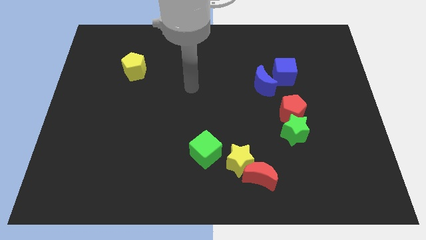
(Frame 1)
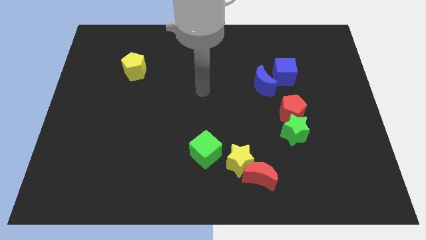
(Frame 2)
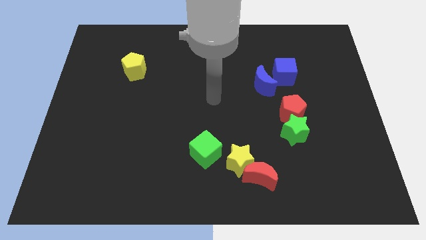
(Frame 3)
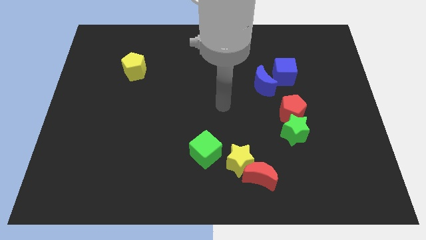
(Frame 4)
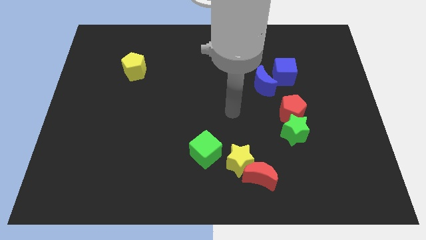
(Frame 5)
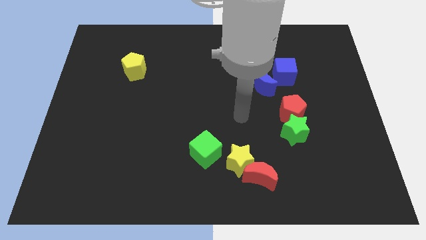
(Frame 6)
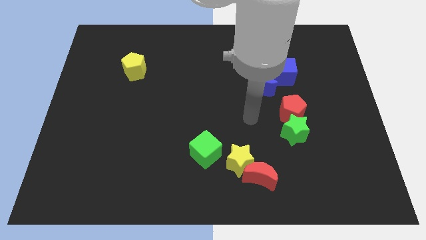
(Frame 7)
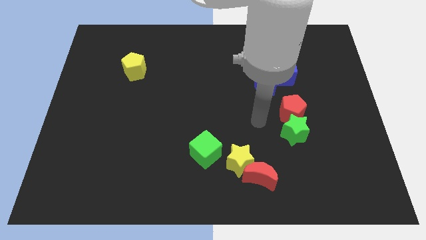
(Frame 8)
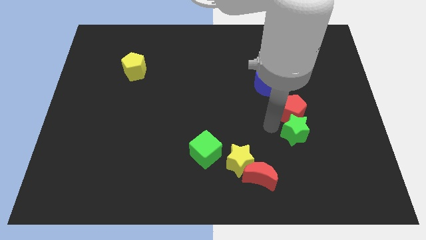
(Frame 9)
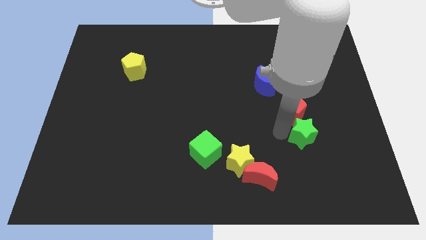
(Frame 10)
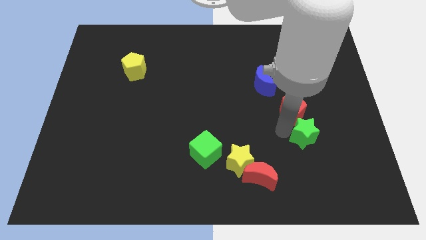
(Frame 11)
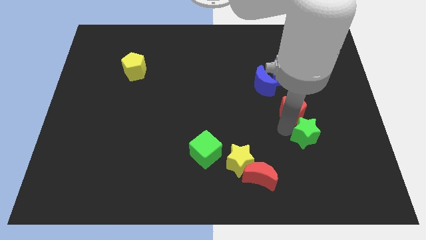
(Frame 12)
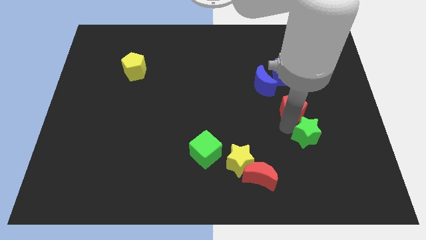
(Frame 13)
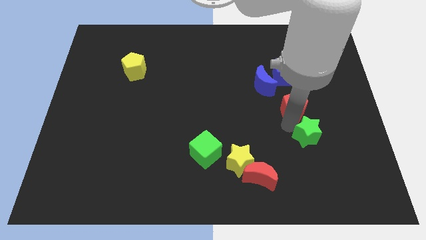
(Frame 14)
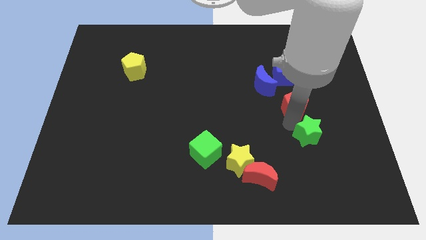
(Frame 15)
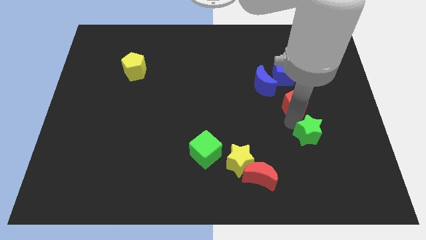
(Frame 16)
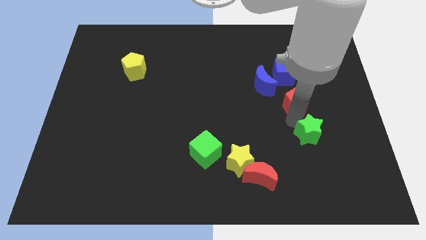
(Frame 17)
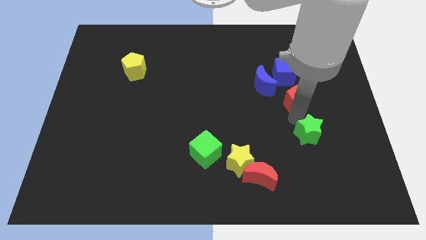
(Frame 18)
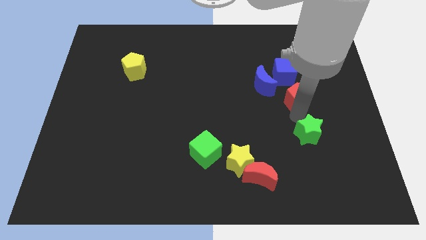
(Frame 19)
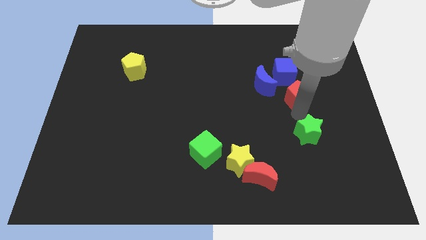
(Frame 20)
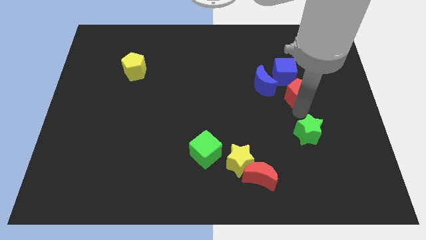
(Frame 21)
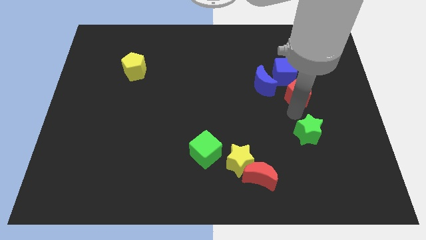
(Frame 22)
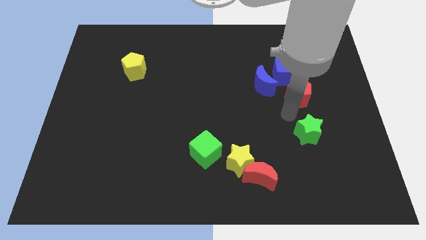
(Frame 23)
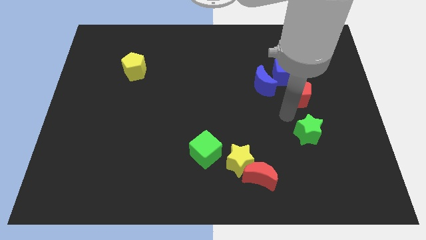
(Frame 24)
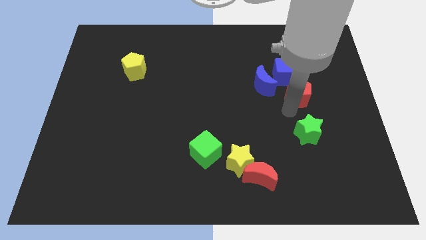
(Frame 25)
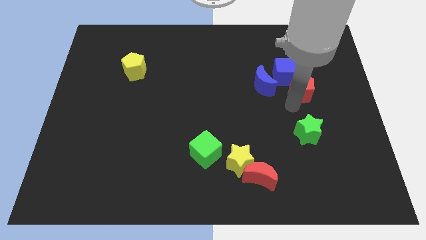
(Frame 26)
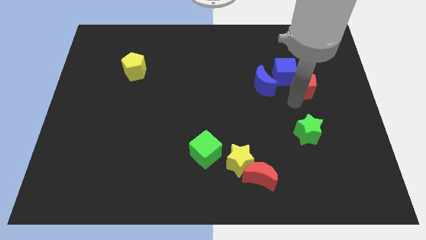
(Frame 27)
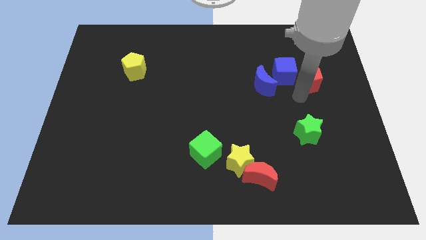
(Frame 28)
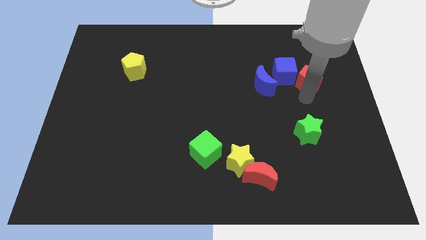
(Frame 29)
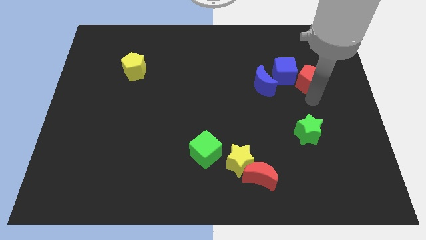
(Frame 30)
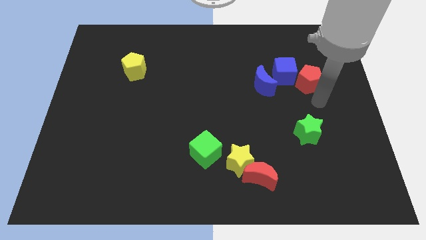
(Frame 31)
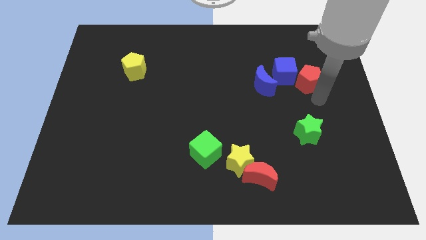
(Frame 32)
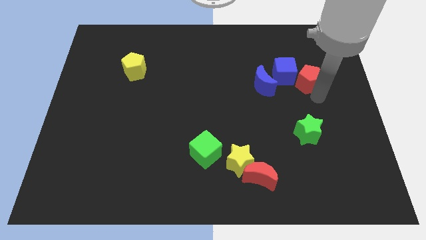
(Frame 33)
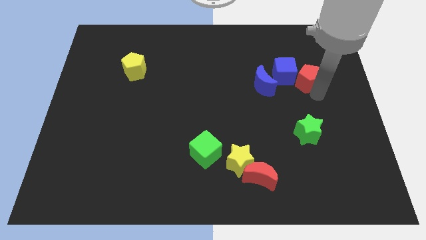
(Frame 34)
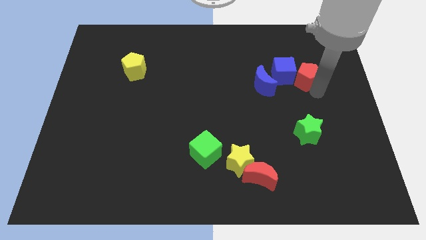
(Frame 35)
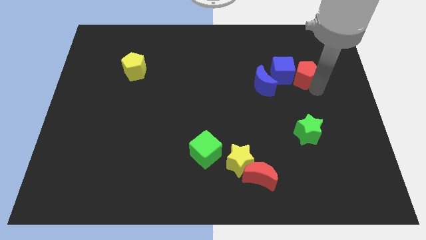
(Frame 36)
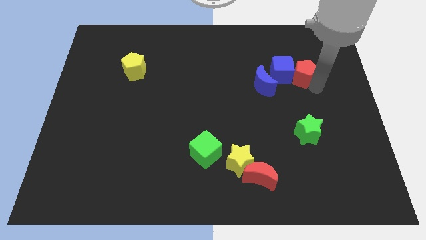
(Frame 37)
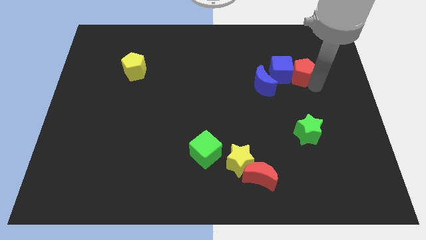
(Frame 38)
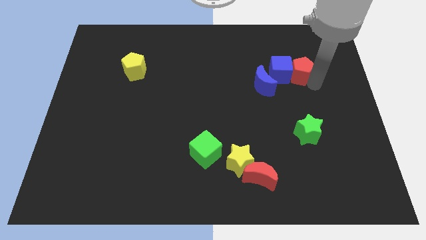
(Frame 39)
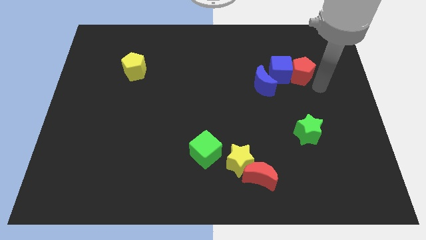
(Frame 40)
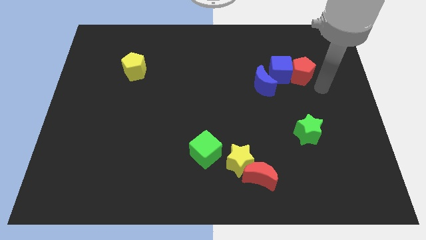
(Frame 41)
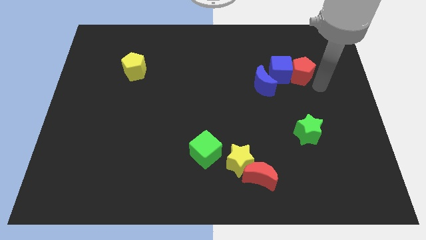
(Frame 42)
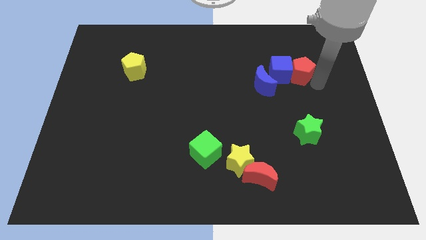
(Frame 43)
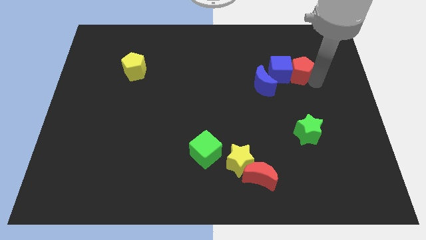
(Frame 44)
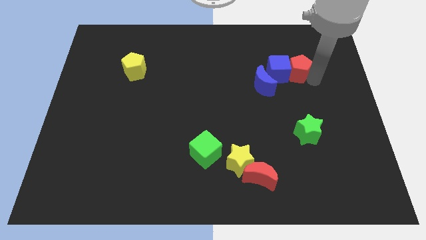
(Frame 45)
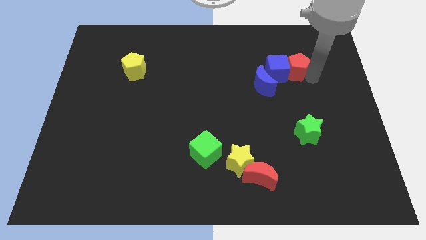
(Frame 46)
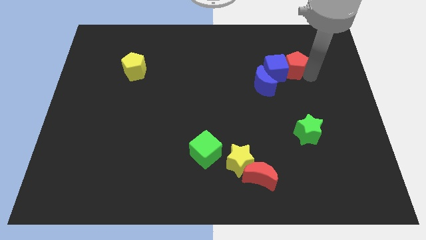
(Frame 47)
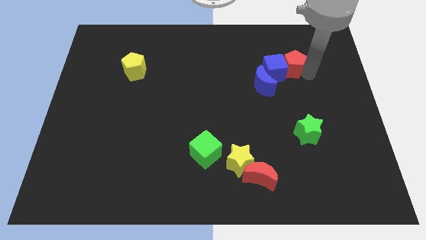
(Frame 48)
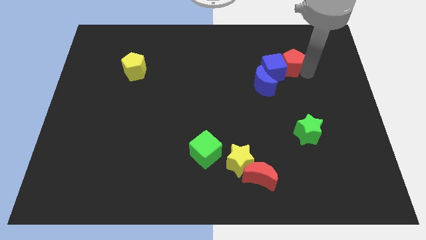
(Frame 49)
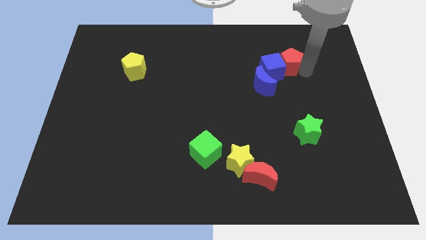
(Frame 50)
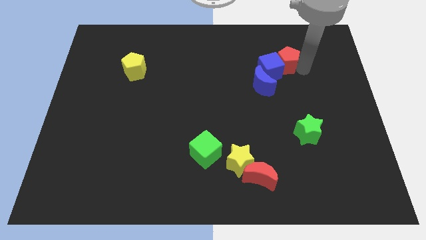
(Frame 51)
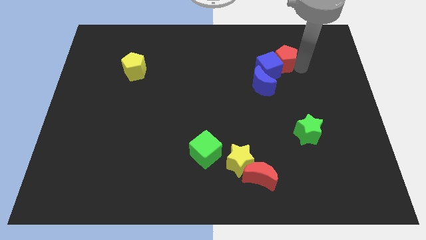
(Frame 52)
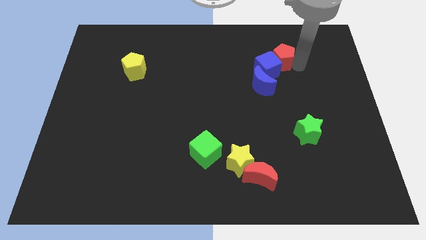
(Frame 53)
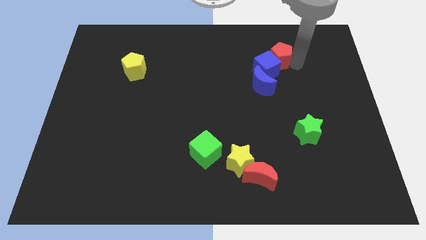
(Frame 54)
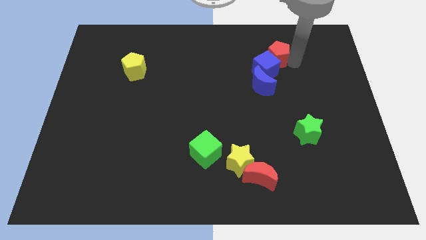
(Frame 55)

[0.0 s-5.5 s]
push the red pentagon above the blue moon

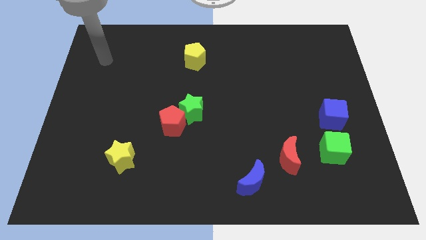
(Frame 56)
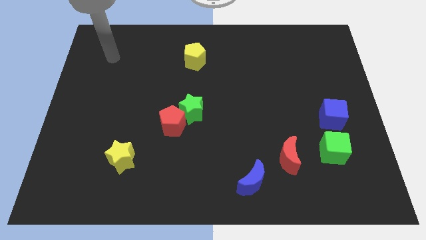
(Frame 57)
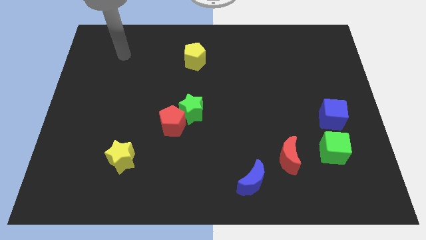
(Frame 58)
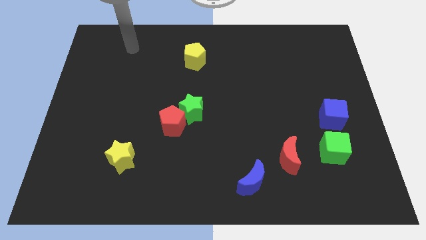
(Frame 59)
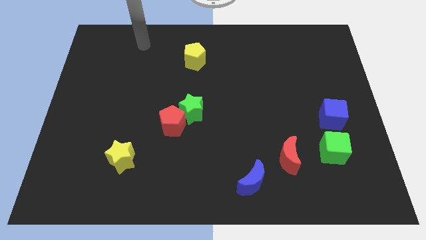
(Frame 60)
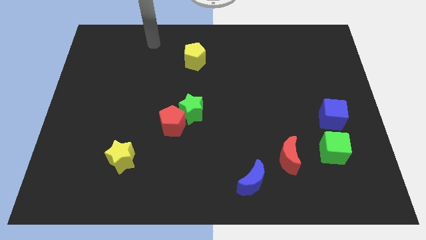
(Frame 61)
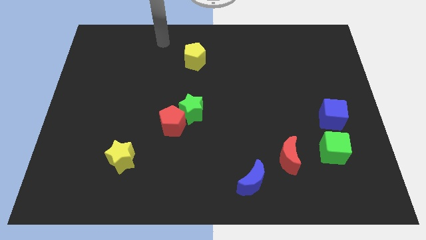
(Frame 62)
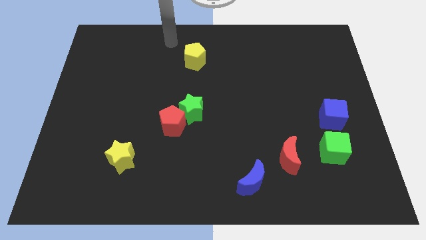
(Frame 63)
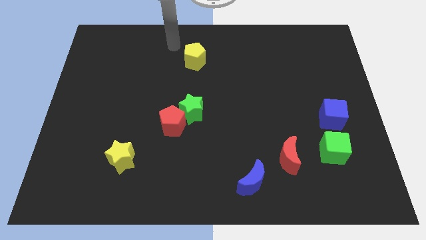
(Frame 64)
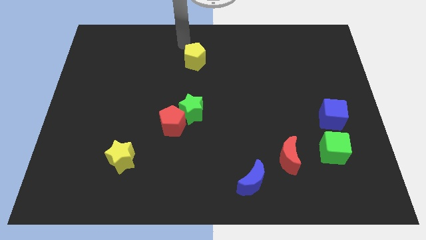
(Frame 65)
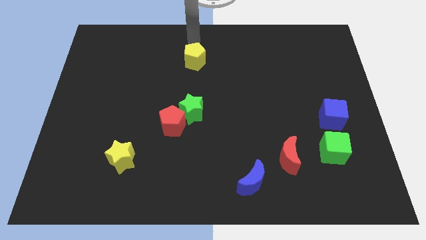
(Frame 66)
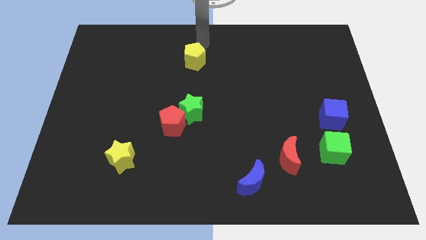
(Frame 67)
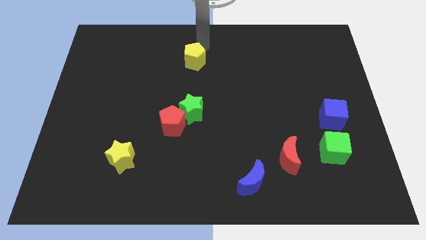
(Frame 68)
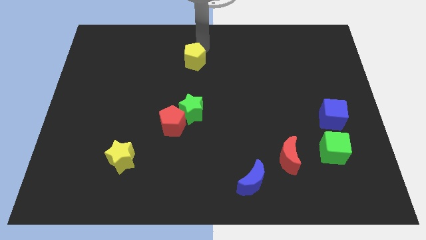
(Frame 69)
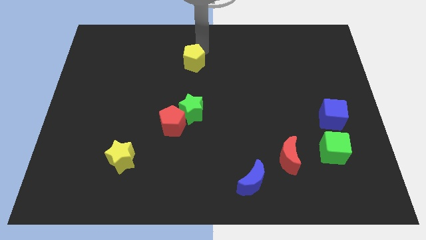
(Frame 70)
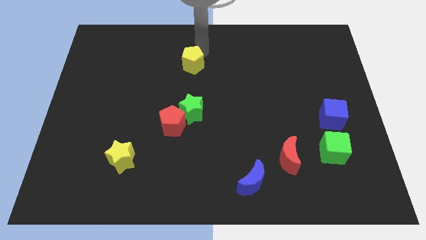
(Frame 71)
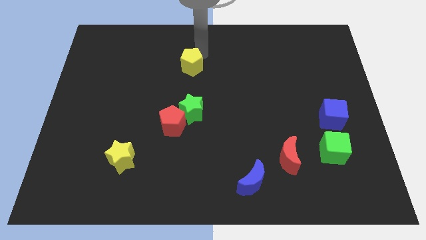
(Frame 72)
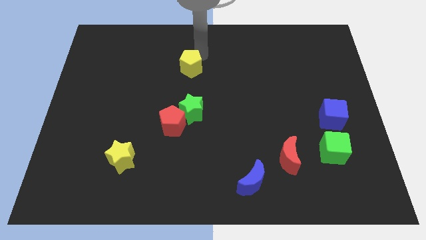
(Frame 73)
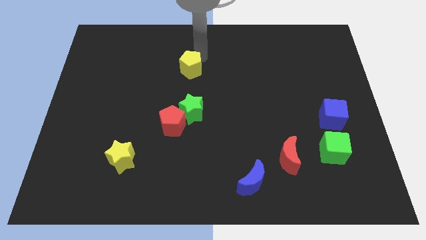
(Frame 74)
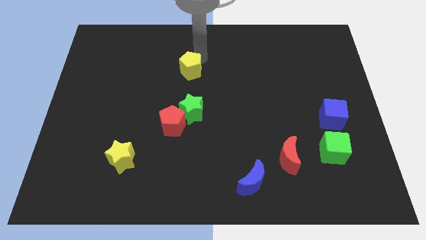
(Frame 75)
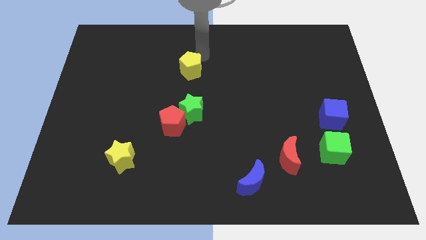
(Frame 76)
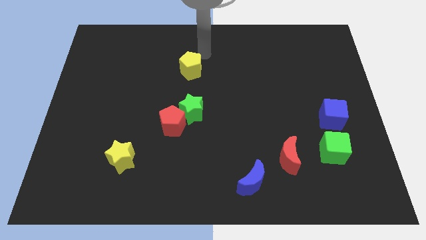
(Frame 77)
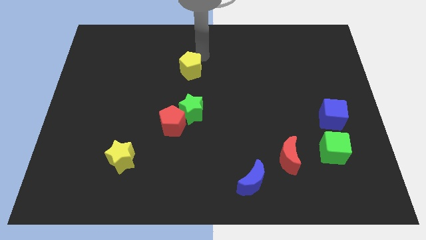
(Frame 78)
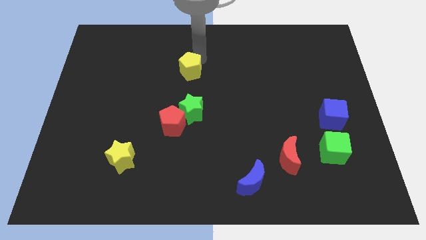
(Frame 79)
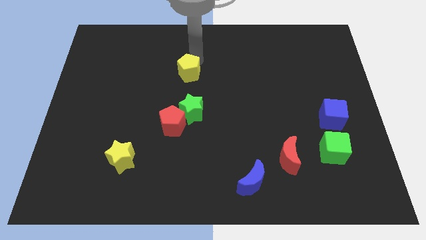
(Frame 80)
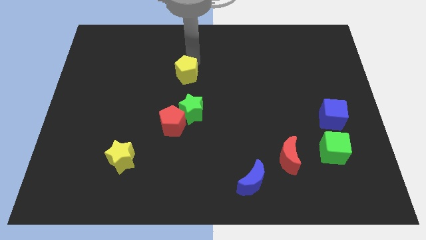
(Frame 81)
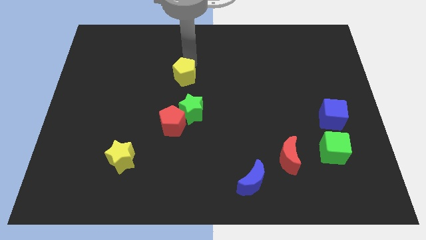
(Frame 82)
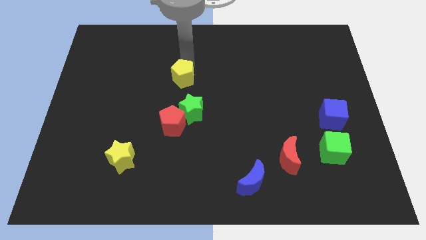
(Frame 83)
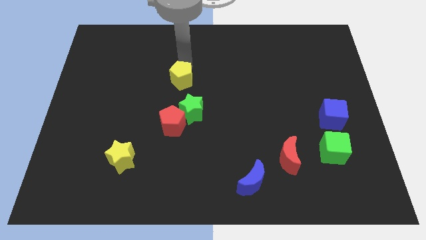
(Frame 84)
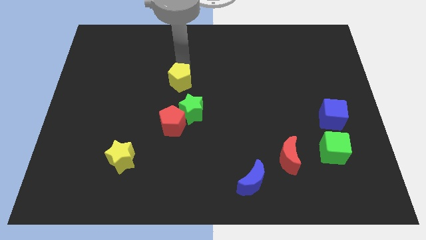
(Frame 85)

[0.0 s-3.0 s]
slide the yellow pentagon to the top left side of the green star
